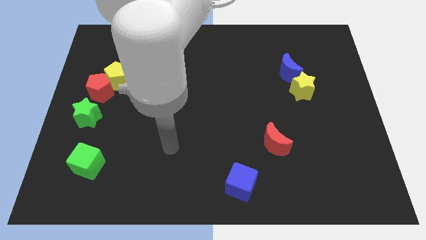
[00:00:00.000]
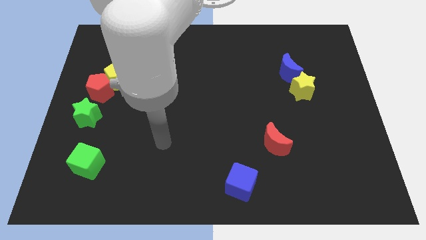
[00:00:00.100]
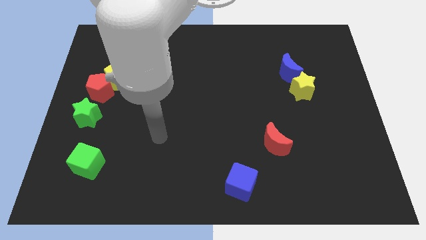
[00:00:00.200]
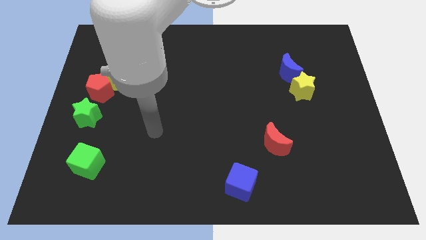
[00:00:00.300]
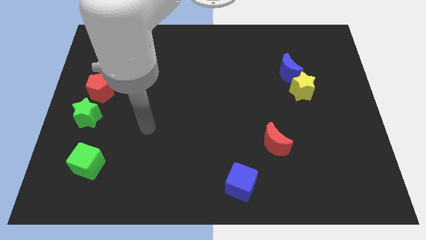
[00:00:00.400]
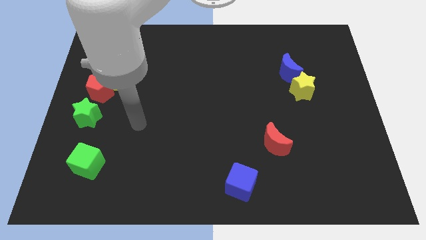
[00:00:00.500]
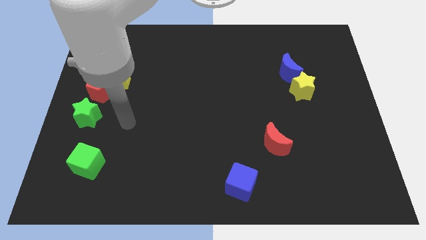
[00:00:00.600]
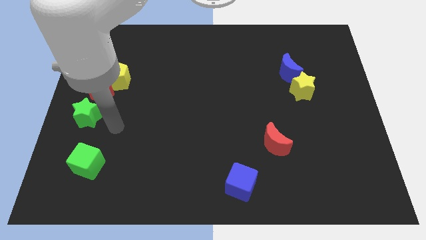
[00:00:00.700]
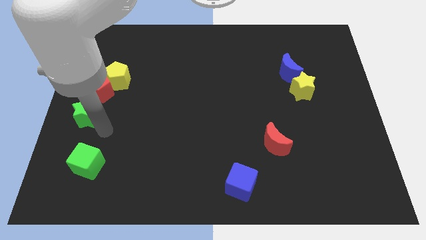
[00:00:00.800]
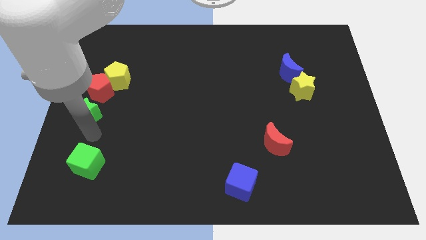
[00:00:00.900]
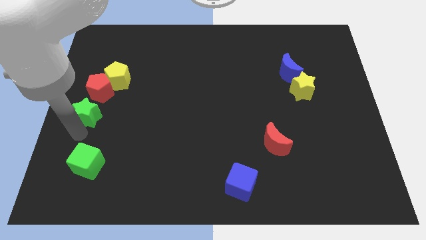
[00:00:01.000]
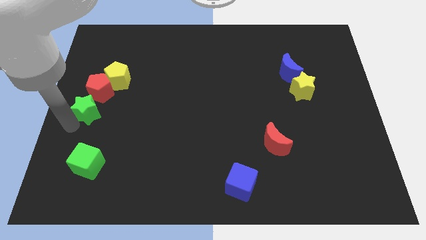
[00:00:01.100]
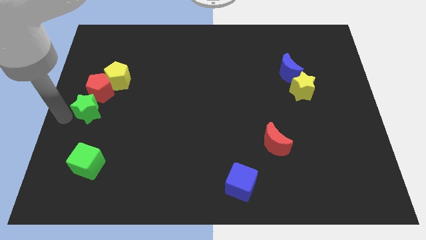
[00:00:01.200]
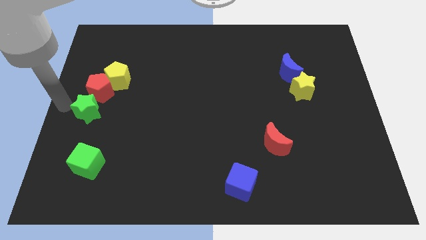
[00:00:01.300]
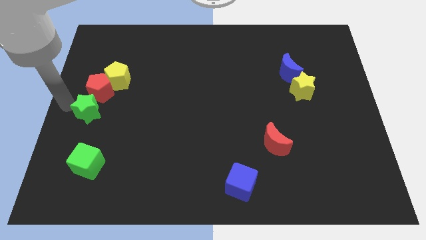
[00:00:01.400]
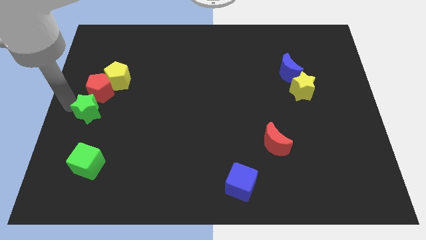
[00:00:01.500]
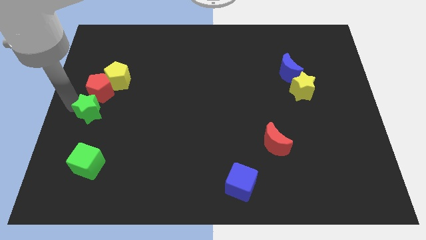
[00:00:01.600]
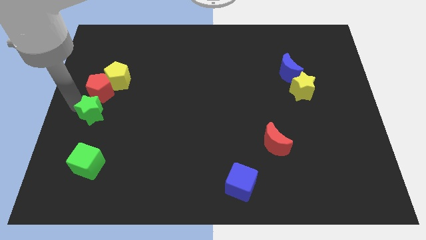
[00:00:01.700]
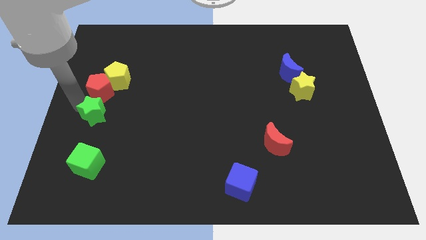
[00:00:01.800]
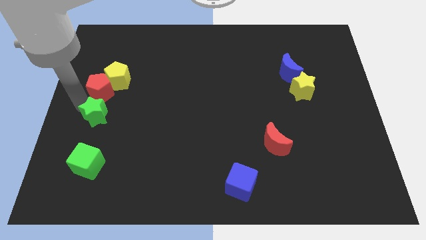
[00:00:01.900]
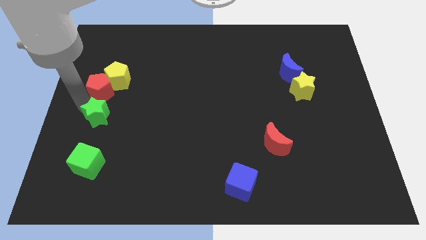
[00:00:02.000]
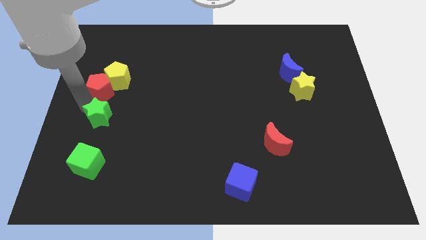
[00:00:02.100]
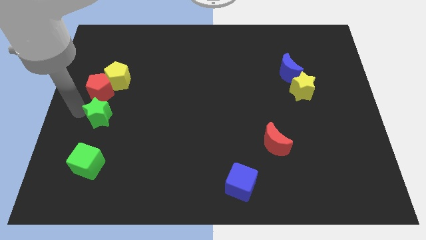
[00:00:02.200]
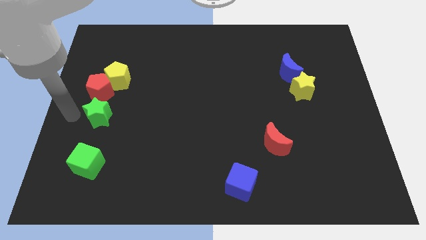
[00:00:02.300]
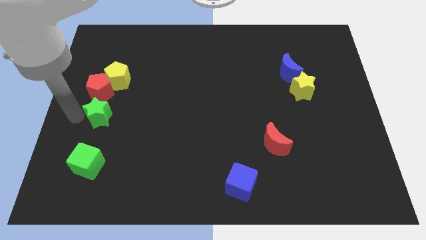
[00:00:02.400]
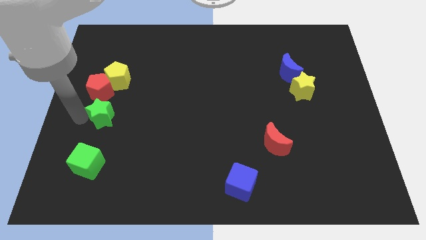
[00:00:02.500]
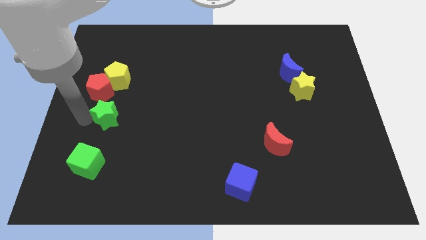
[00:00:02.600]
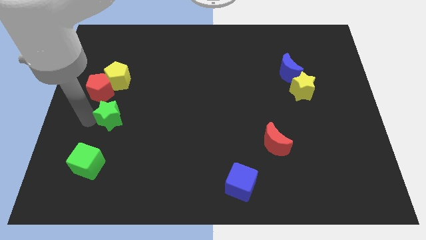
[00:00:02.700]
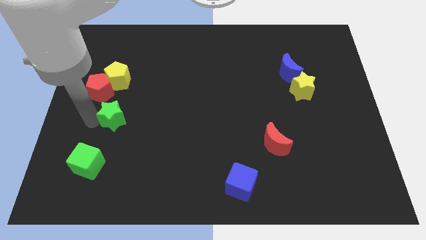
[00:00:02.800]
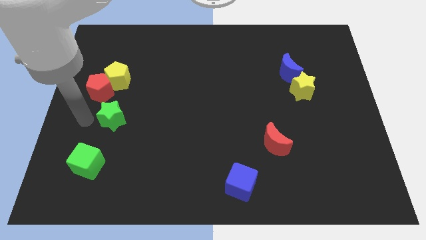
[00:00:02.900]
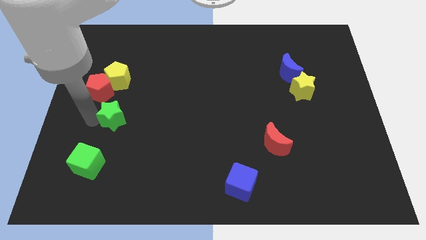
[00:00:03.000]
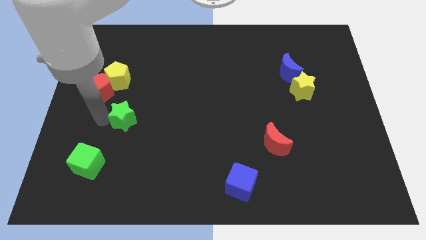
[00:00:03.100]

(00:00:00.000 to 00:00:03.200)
push the green star a little bit to the right

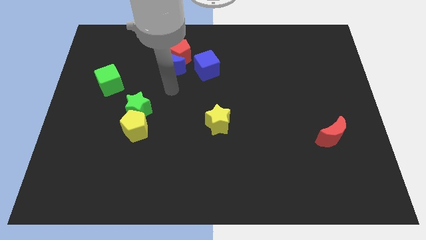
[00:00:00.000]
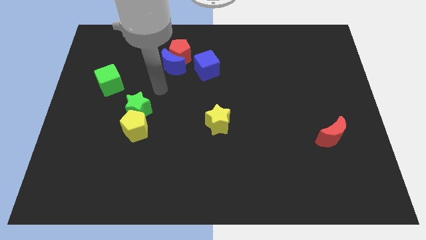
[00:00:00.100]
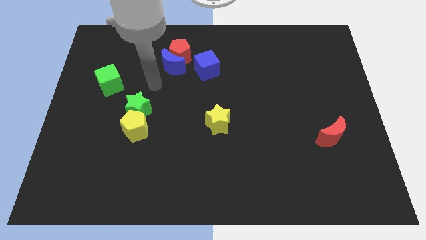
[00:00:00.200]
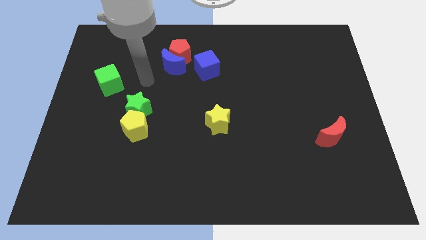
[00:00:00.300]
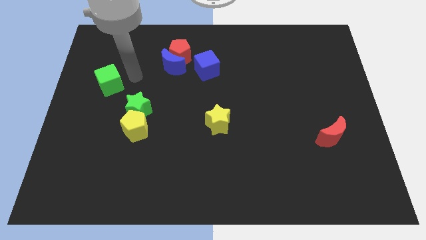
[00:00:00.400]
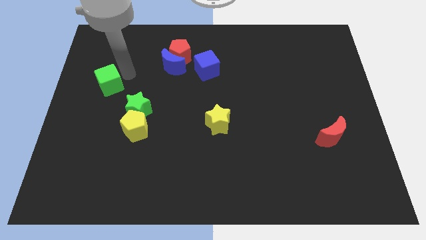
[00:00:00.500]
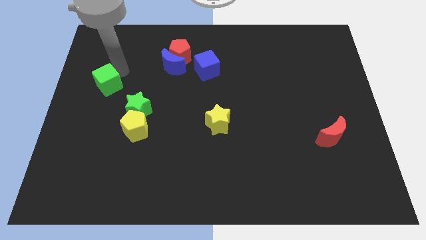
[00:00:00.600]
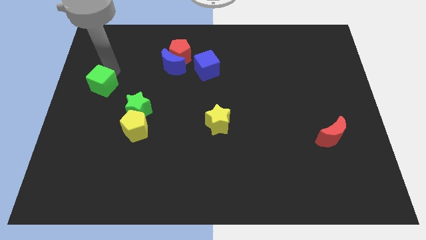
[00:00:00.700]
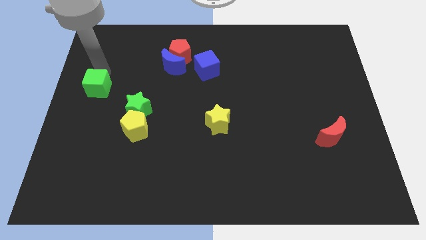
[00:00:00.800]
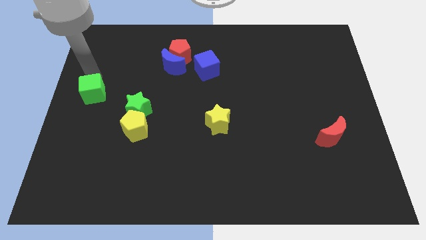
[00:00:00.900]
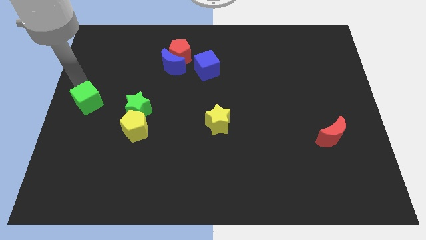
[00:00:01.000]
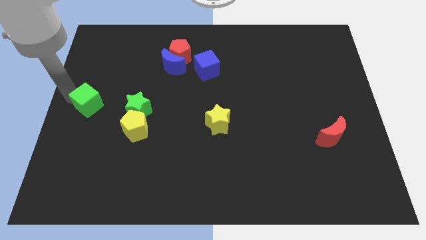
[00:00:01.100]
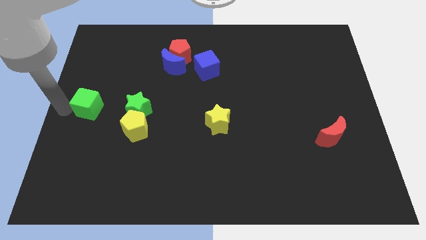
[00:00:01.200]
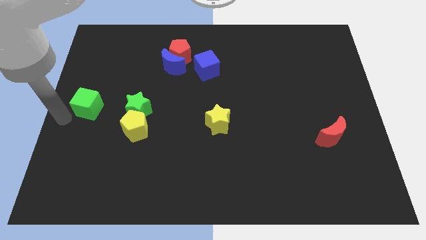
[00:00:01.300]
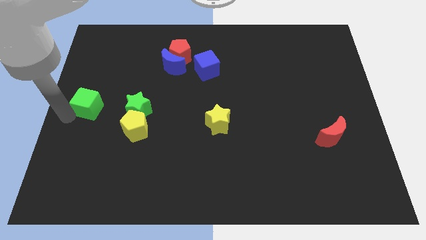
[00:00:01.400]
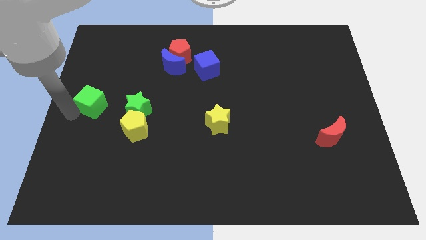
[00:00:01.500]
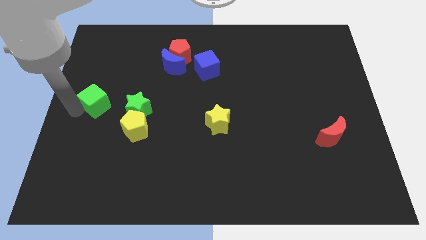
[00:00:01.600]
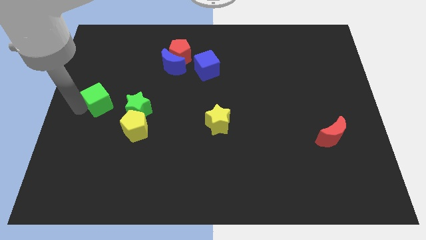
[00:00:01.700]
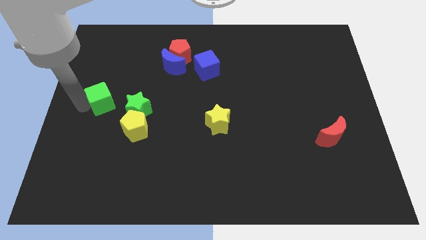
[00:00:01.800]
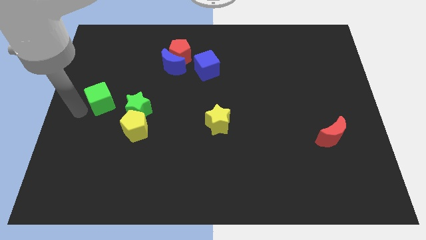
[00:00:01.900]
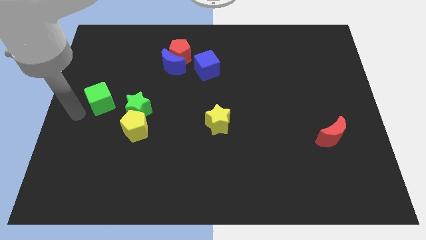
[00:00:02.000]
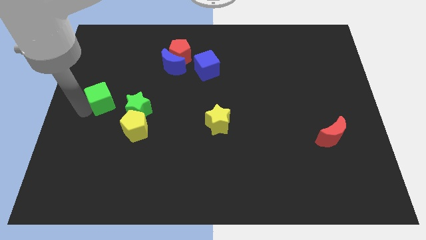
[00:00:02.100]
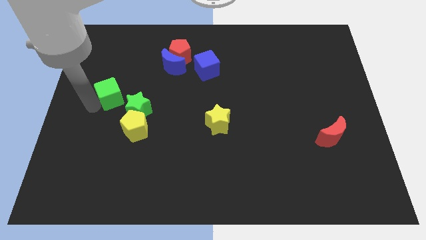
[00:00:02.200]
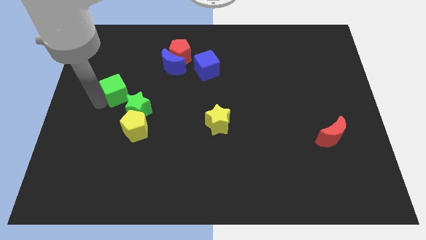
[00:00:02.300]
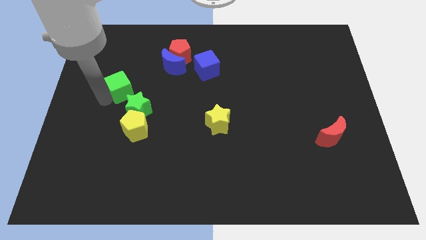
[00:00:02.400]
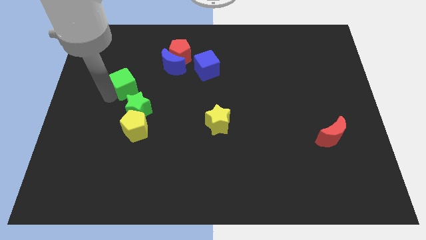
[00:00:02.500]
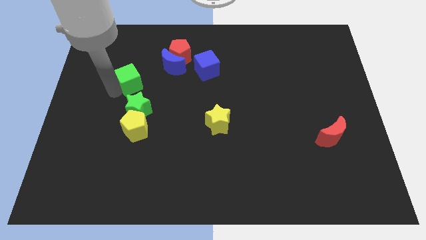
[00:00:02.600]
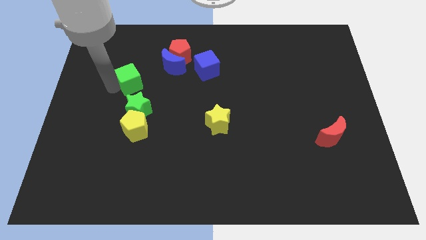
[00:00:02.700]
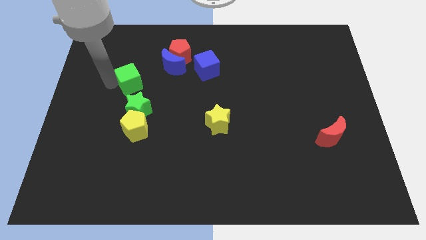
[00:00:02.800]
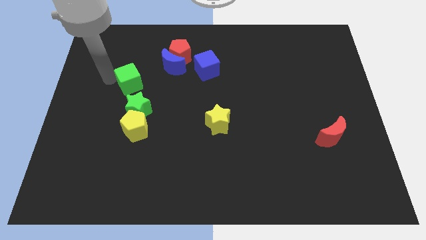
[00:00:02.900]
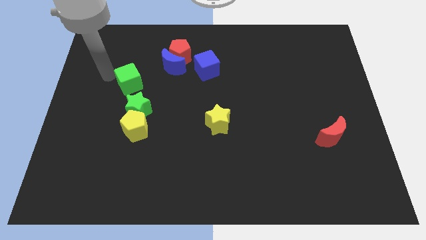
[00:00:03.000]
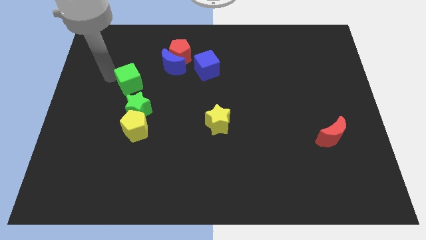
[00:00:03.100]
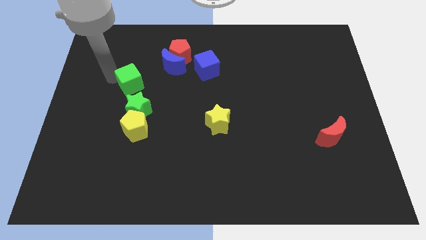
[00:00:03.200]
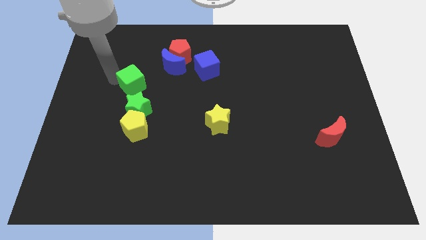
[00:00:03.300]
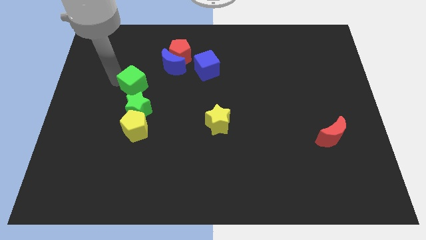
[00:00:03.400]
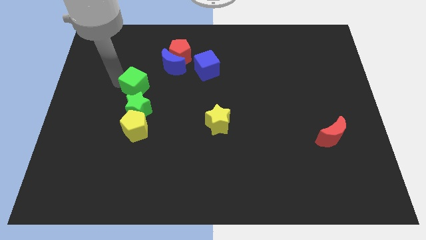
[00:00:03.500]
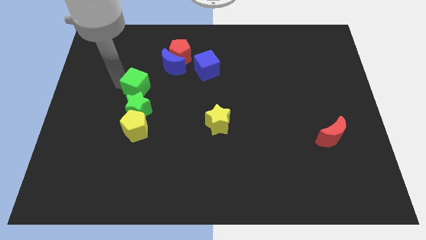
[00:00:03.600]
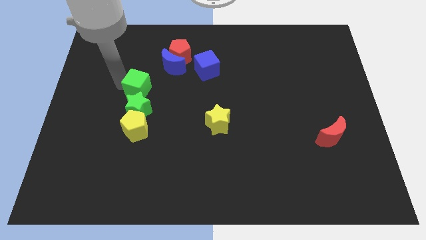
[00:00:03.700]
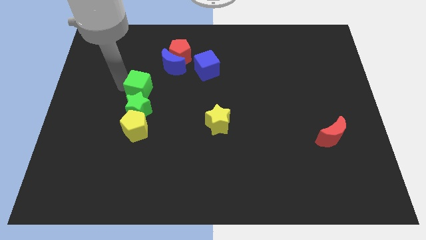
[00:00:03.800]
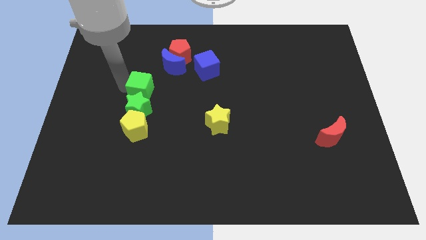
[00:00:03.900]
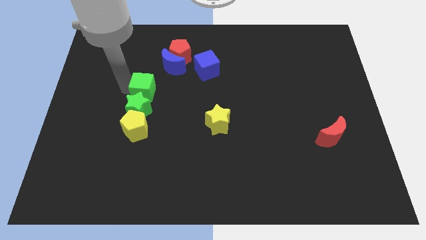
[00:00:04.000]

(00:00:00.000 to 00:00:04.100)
slightly slide the green cube downwards and right

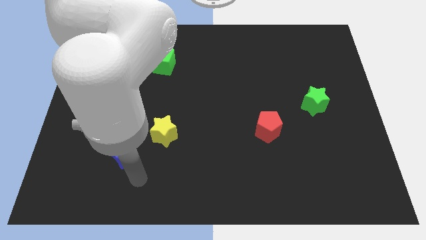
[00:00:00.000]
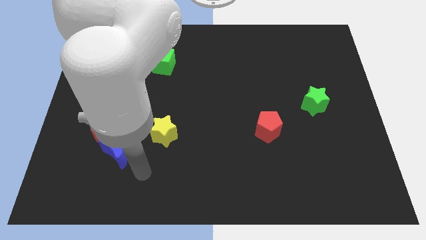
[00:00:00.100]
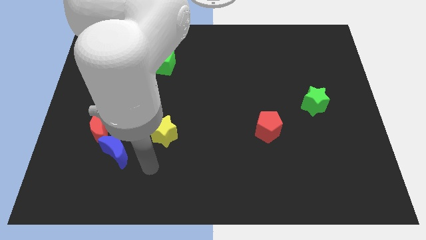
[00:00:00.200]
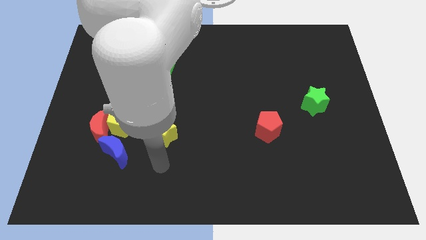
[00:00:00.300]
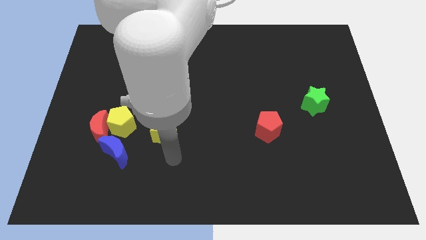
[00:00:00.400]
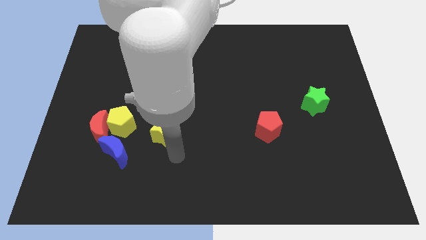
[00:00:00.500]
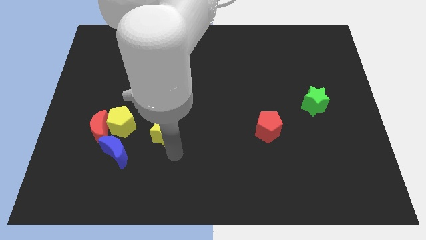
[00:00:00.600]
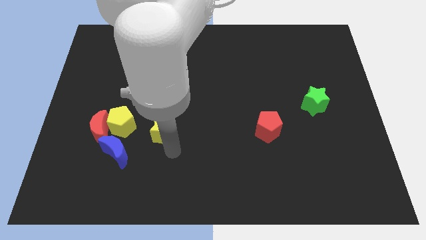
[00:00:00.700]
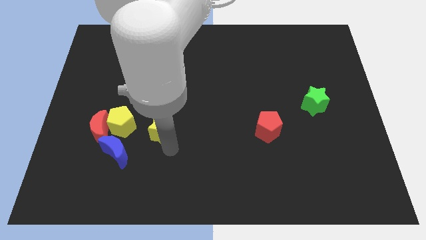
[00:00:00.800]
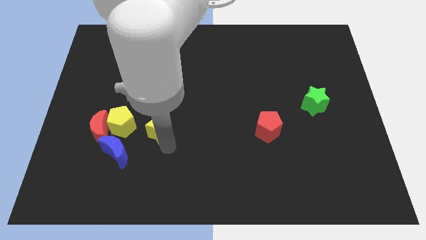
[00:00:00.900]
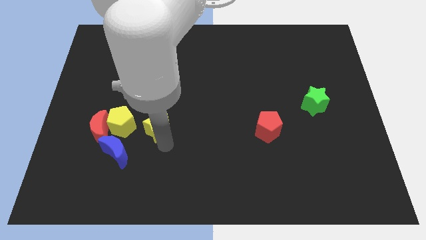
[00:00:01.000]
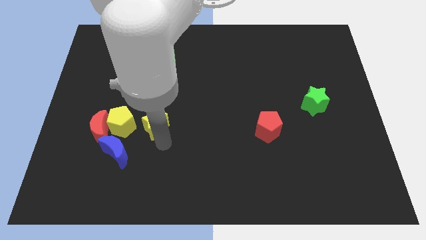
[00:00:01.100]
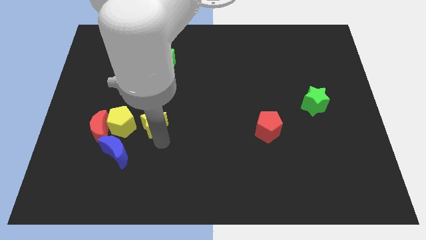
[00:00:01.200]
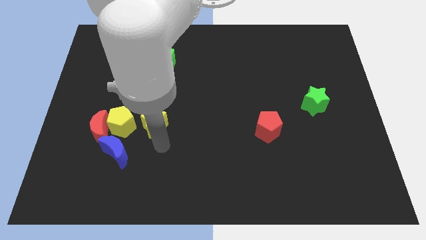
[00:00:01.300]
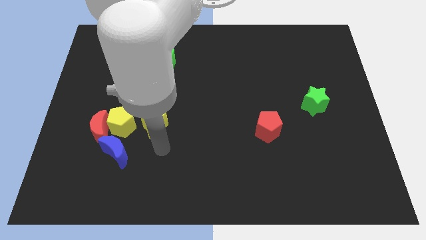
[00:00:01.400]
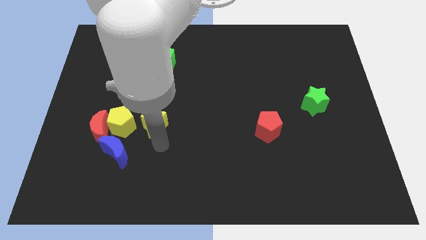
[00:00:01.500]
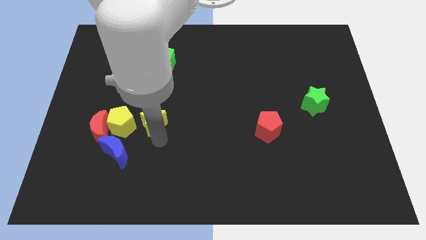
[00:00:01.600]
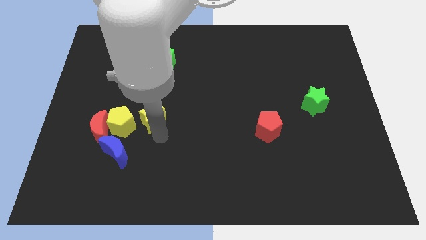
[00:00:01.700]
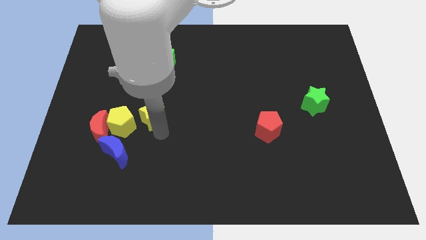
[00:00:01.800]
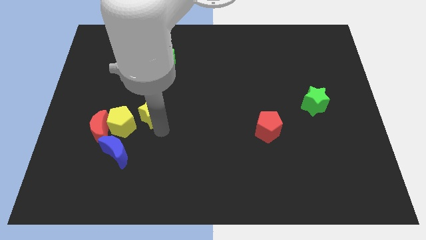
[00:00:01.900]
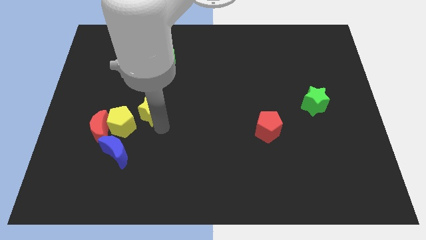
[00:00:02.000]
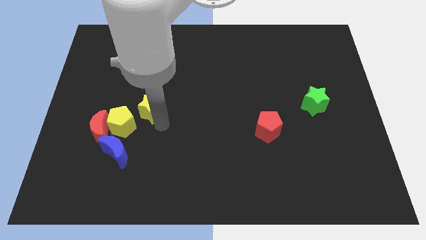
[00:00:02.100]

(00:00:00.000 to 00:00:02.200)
push the yellow star upwards and left diagonally a little bit
